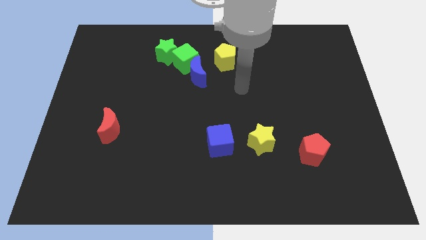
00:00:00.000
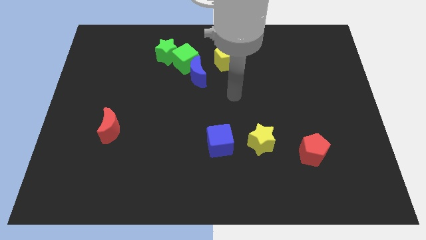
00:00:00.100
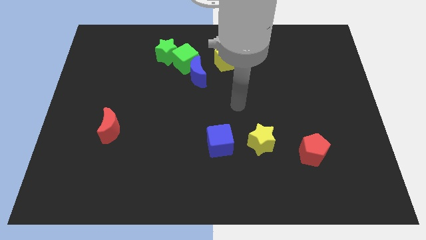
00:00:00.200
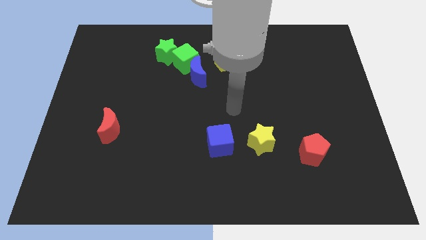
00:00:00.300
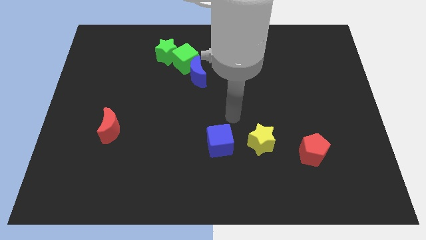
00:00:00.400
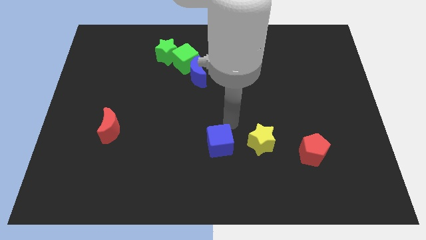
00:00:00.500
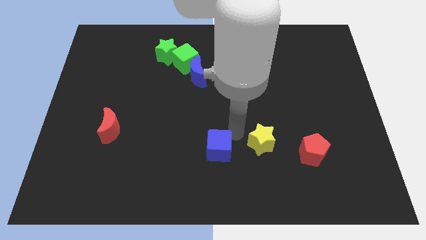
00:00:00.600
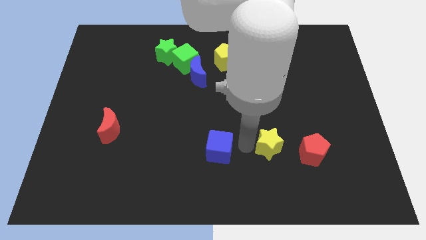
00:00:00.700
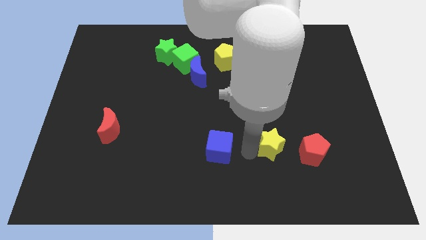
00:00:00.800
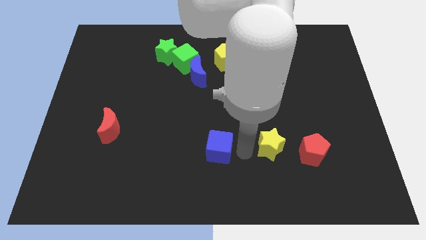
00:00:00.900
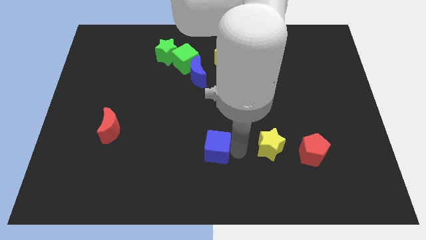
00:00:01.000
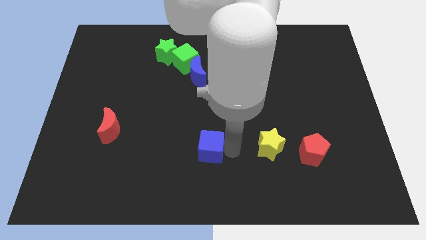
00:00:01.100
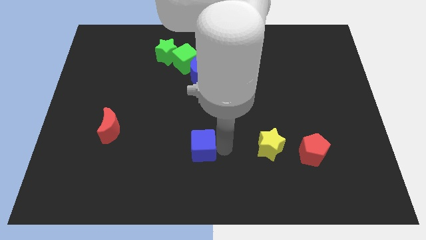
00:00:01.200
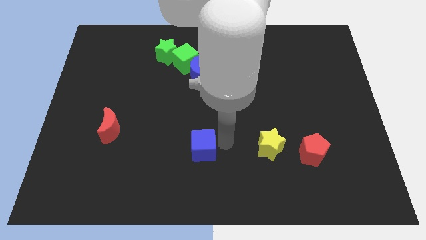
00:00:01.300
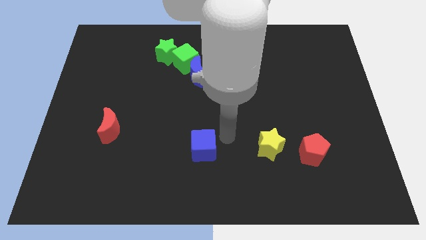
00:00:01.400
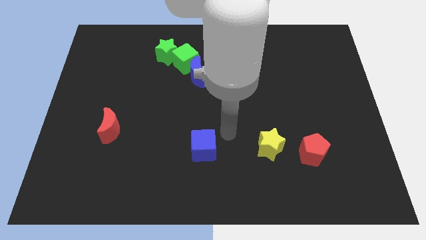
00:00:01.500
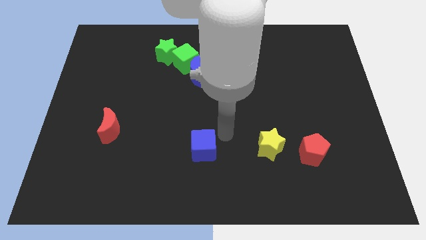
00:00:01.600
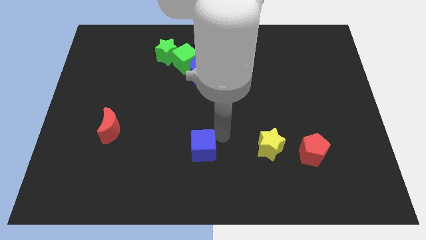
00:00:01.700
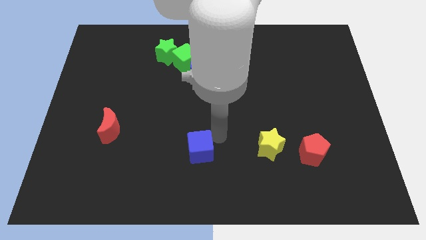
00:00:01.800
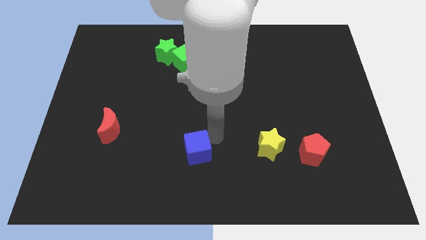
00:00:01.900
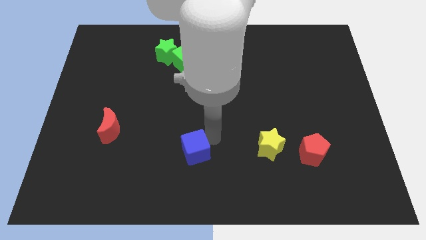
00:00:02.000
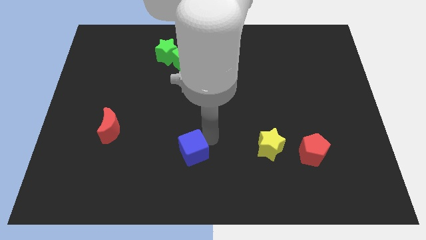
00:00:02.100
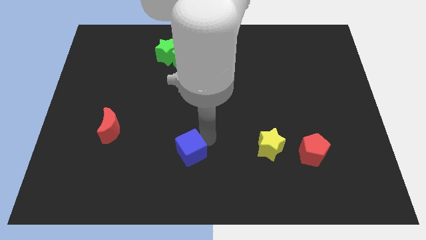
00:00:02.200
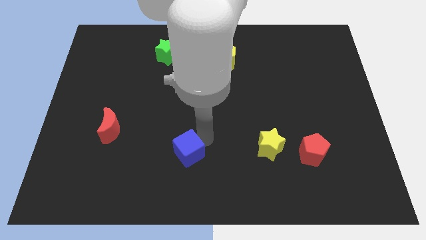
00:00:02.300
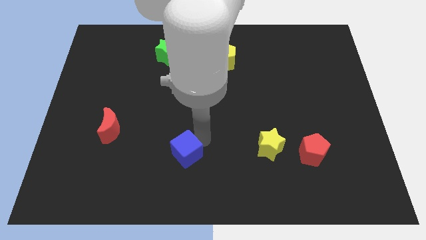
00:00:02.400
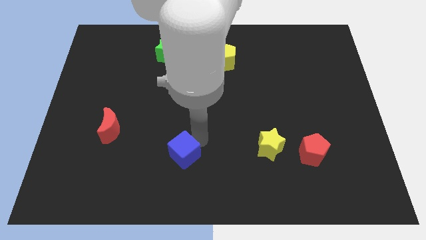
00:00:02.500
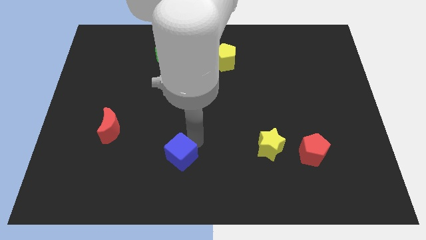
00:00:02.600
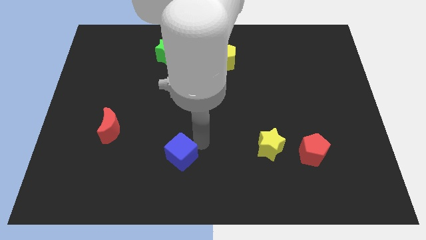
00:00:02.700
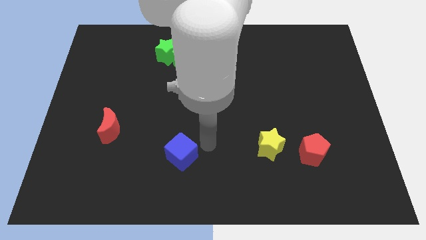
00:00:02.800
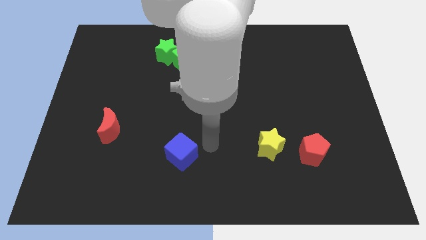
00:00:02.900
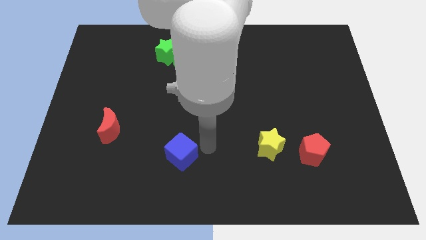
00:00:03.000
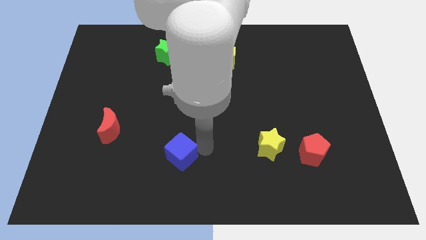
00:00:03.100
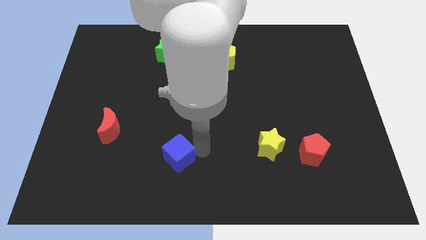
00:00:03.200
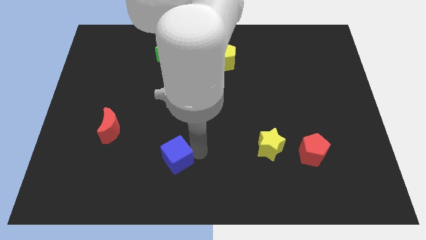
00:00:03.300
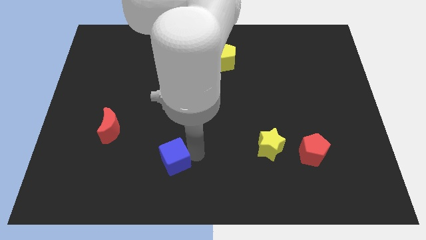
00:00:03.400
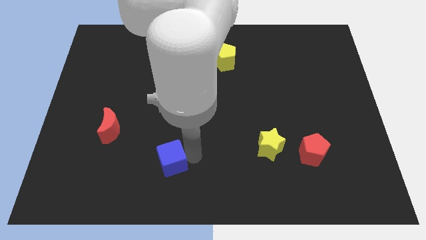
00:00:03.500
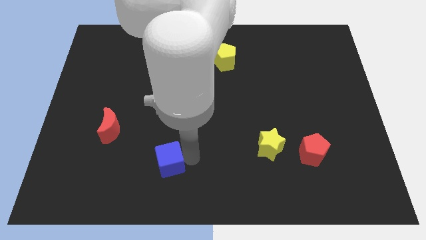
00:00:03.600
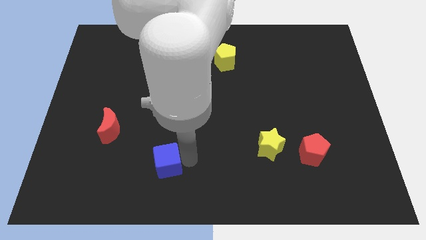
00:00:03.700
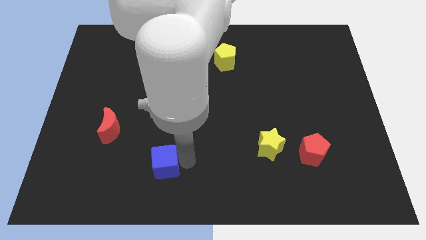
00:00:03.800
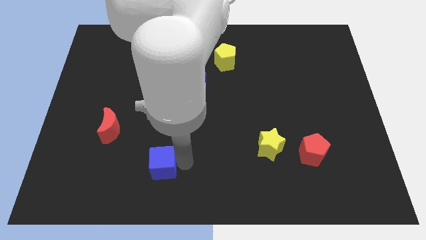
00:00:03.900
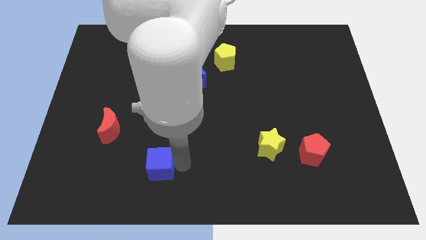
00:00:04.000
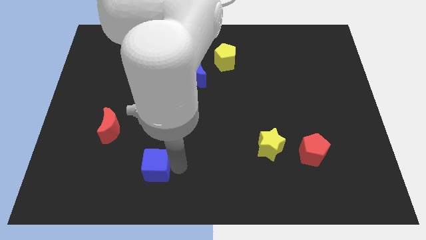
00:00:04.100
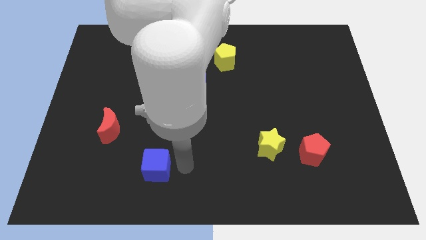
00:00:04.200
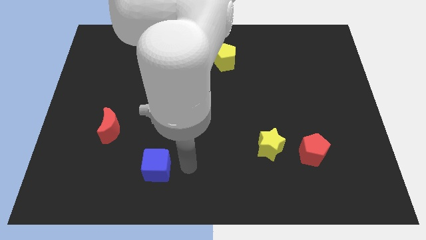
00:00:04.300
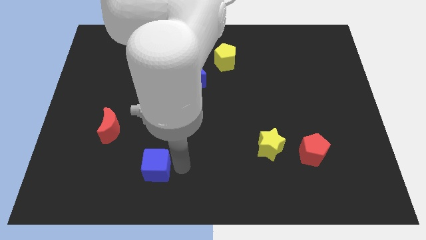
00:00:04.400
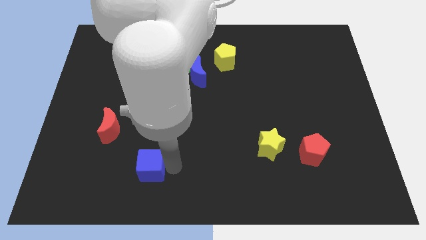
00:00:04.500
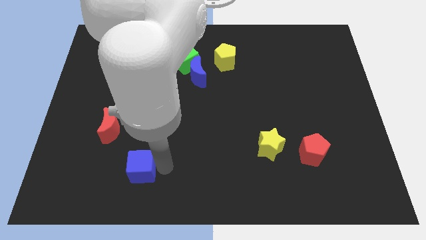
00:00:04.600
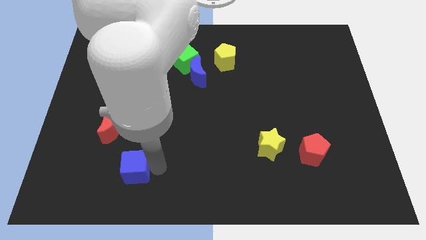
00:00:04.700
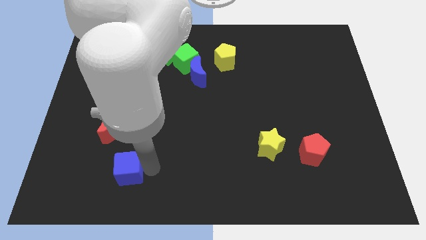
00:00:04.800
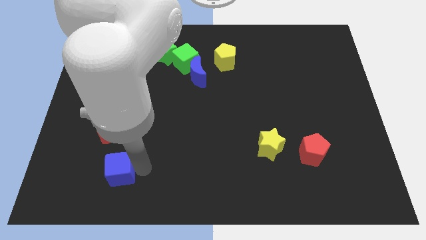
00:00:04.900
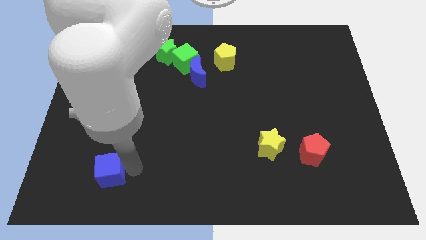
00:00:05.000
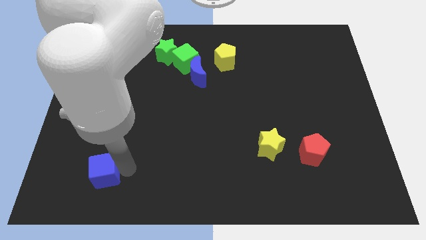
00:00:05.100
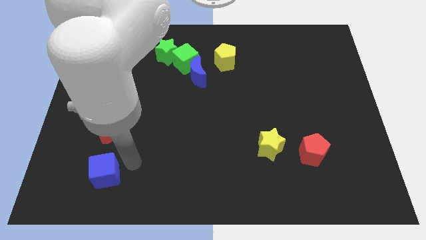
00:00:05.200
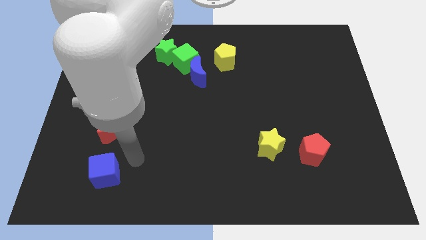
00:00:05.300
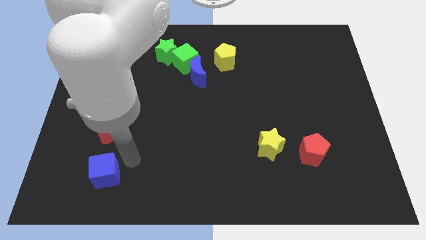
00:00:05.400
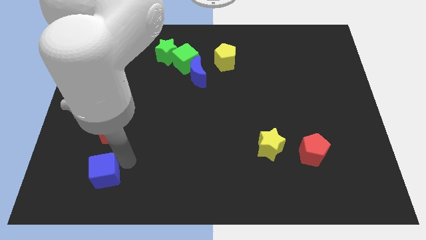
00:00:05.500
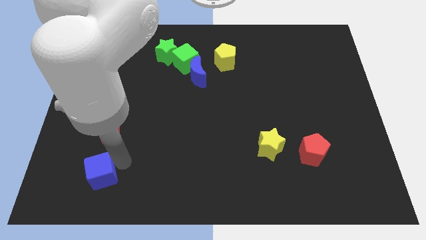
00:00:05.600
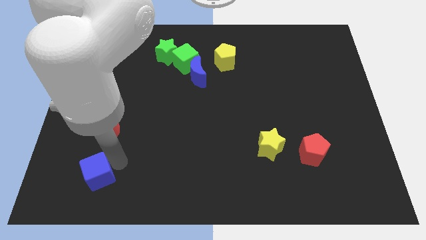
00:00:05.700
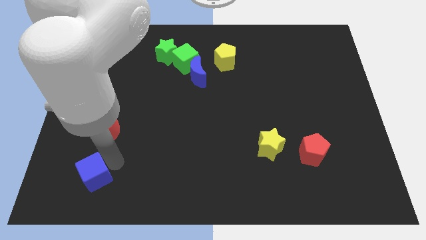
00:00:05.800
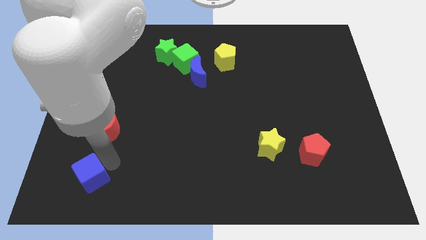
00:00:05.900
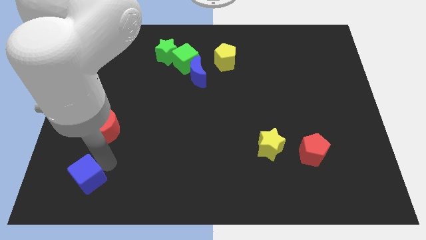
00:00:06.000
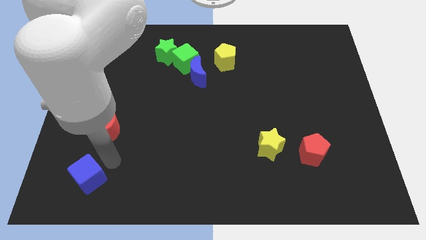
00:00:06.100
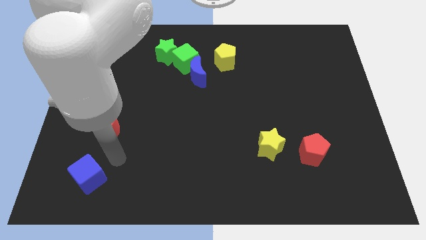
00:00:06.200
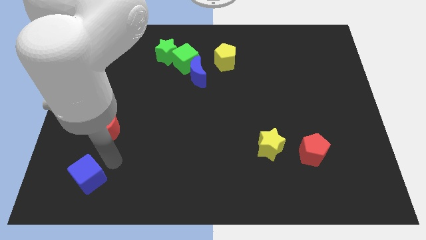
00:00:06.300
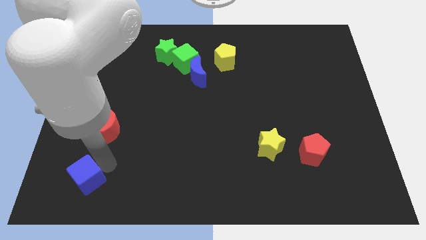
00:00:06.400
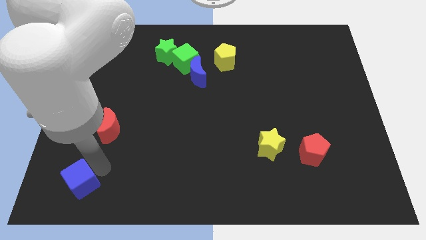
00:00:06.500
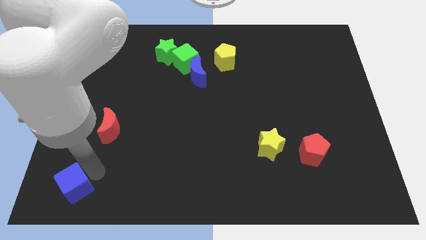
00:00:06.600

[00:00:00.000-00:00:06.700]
move the blue cube to the bottom left corner

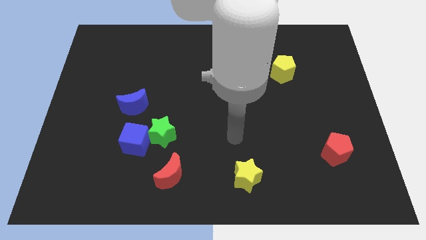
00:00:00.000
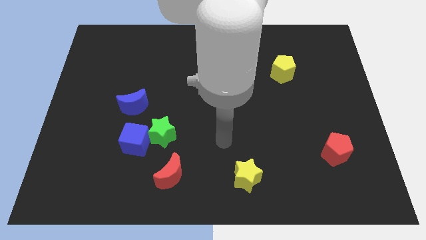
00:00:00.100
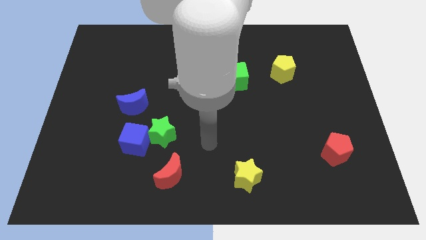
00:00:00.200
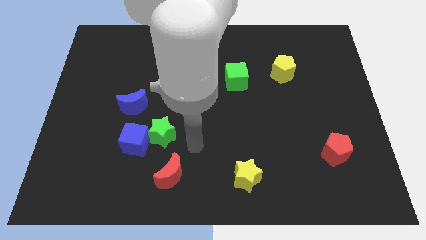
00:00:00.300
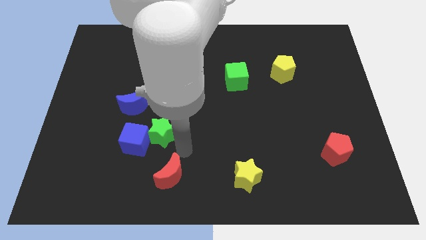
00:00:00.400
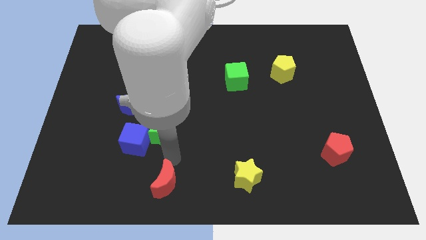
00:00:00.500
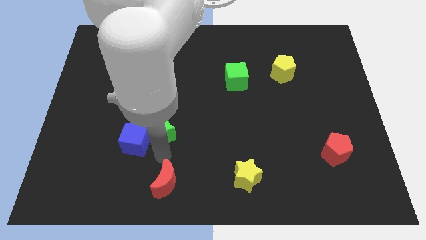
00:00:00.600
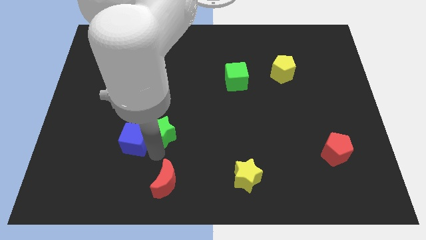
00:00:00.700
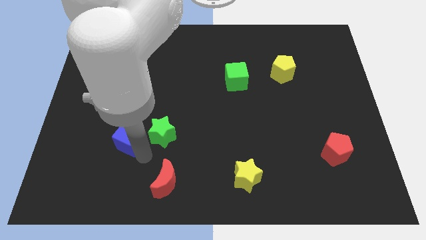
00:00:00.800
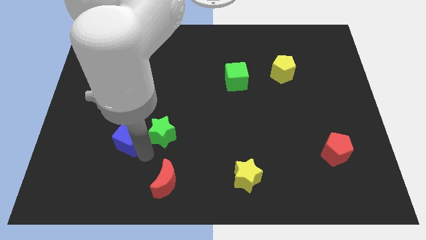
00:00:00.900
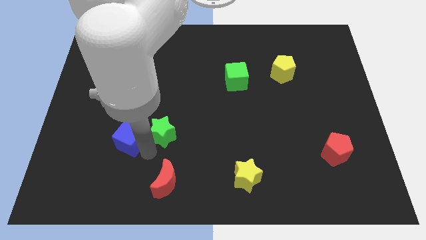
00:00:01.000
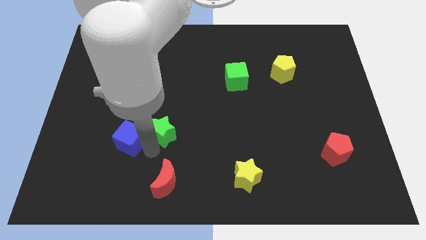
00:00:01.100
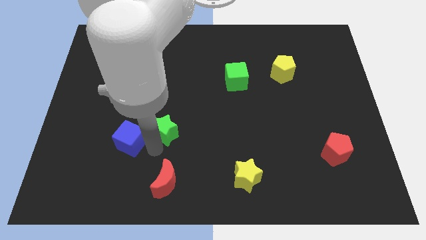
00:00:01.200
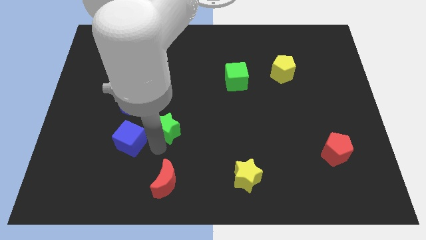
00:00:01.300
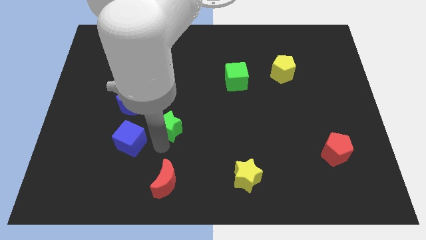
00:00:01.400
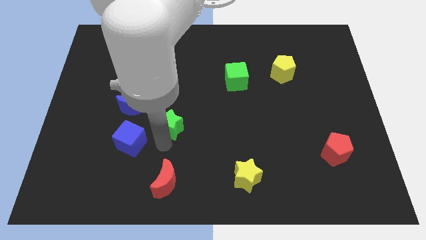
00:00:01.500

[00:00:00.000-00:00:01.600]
push the green star to the middle of the board
